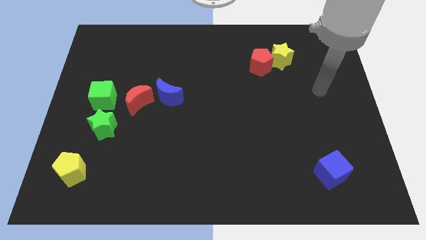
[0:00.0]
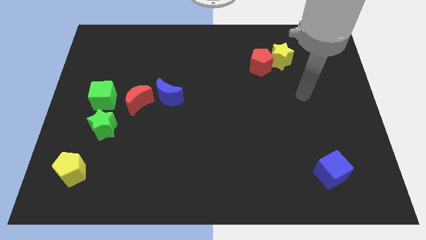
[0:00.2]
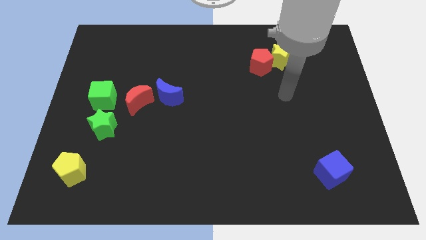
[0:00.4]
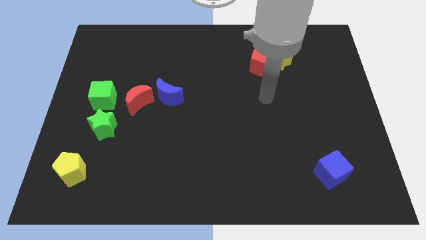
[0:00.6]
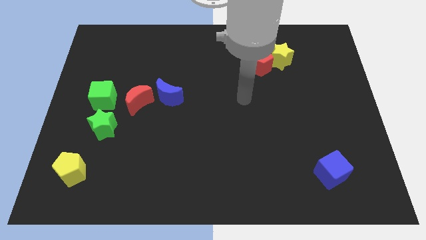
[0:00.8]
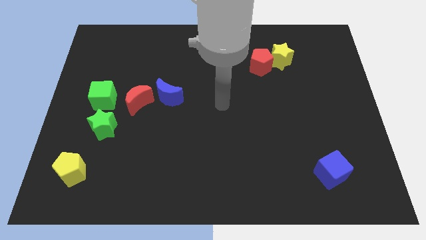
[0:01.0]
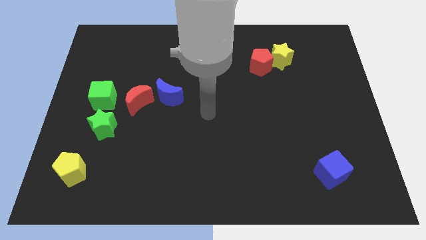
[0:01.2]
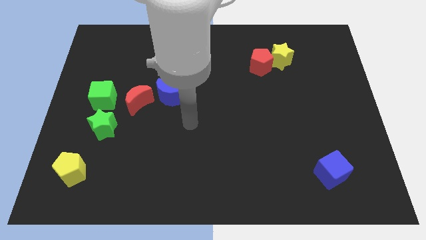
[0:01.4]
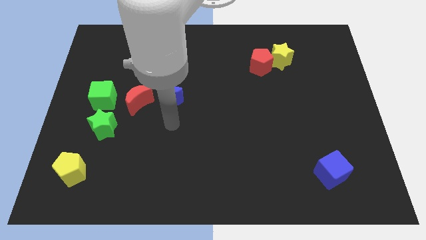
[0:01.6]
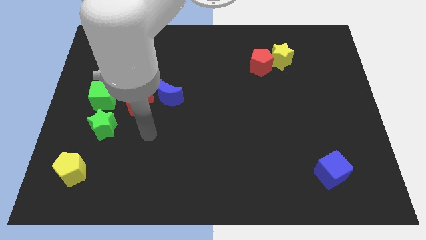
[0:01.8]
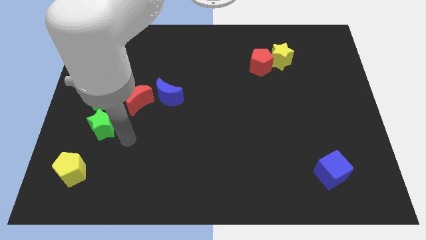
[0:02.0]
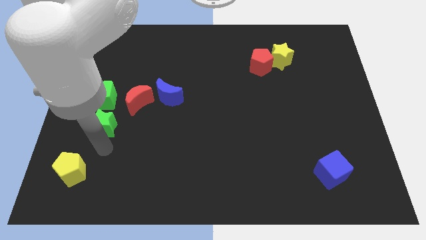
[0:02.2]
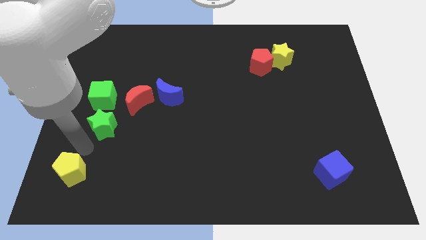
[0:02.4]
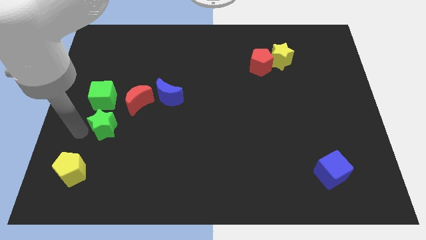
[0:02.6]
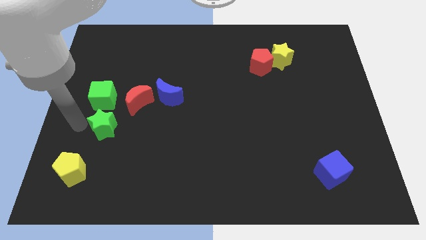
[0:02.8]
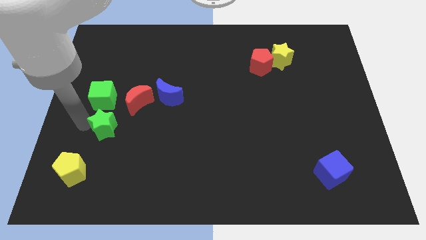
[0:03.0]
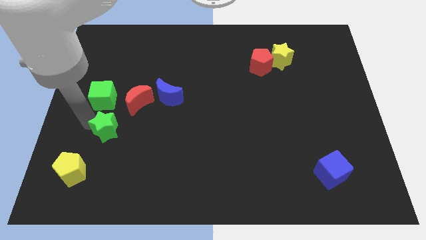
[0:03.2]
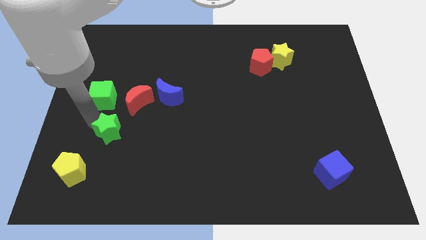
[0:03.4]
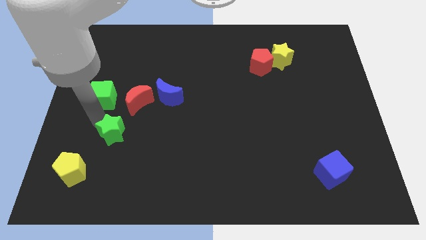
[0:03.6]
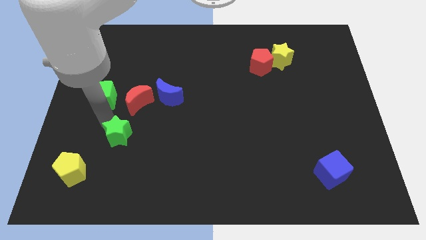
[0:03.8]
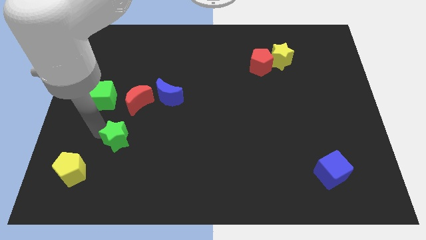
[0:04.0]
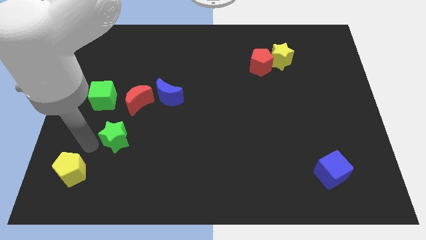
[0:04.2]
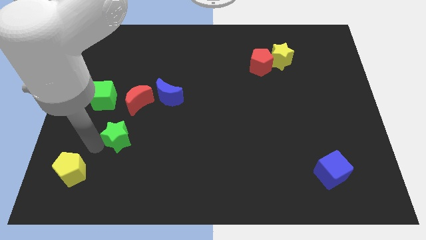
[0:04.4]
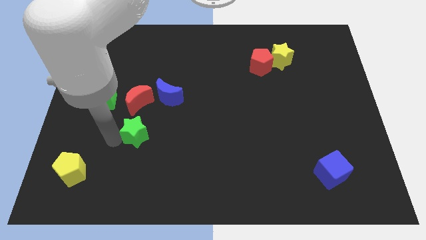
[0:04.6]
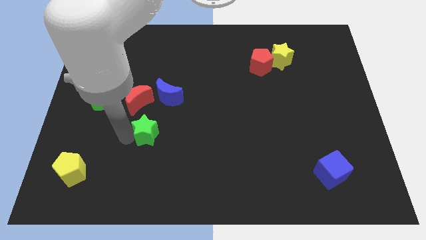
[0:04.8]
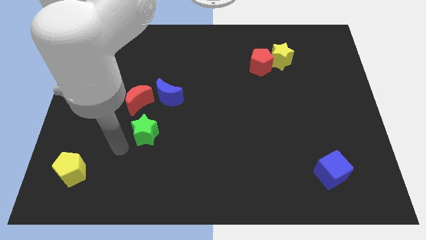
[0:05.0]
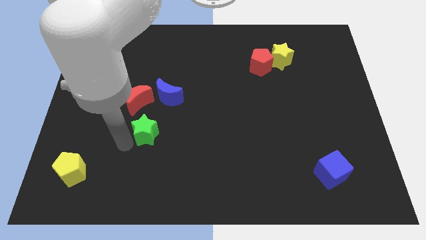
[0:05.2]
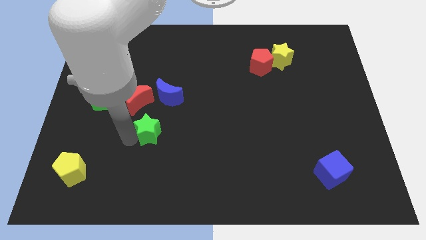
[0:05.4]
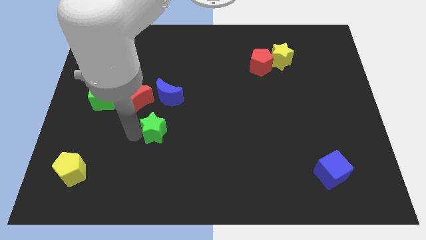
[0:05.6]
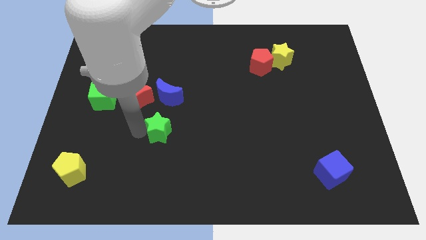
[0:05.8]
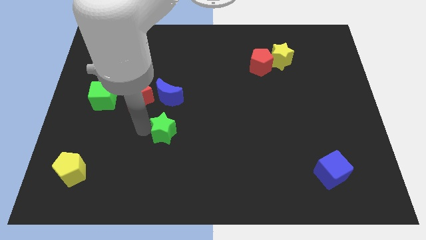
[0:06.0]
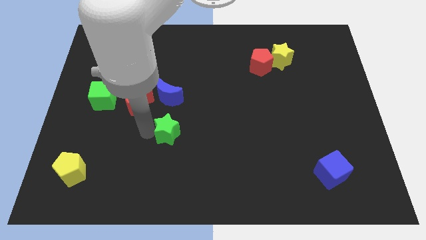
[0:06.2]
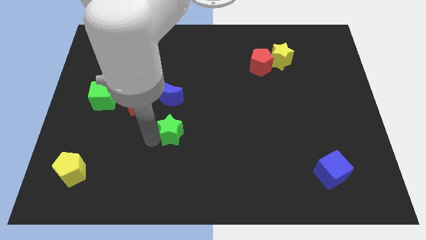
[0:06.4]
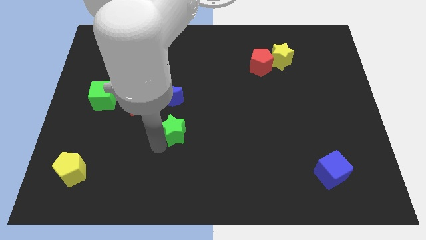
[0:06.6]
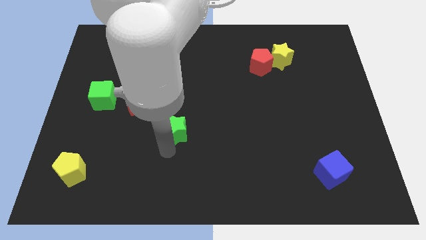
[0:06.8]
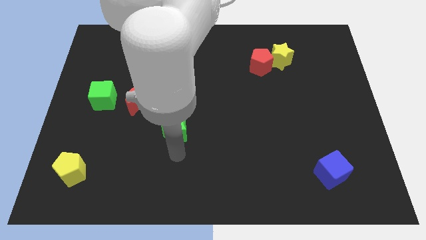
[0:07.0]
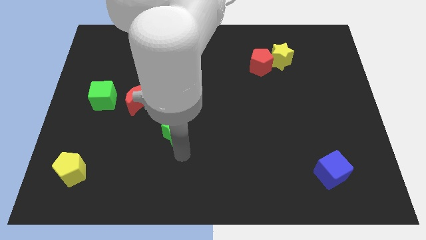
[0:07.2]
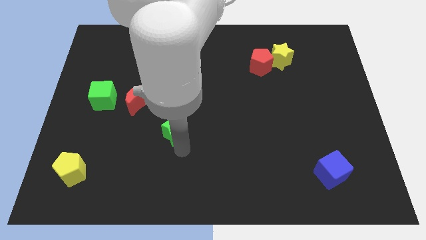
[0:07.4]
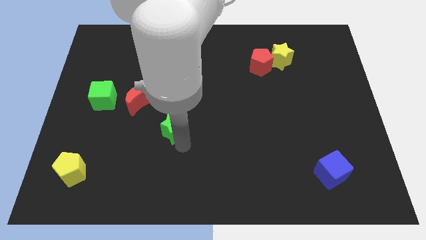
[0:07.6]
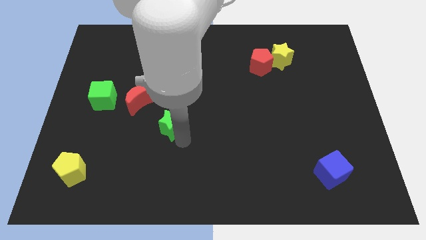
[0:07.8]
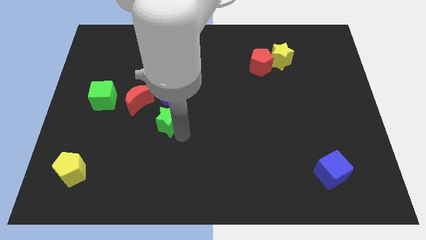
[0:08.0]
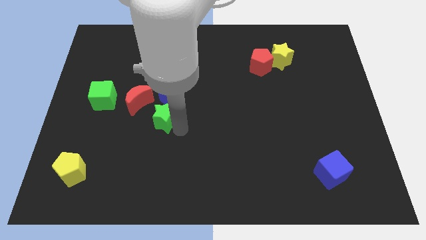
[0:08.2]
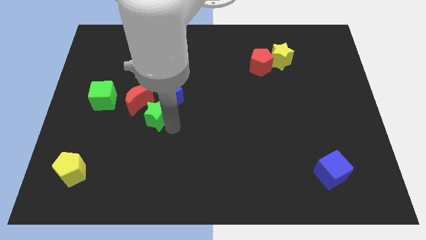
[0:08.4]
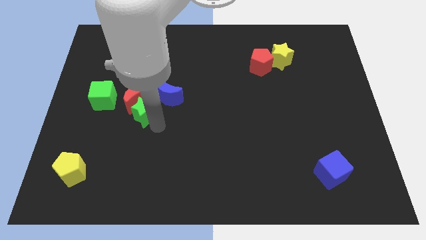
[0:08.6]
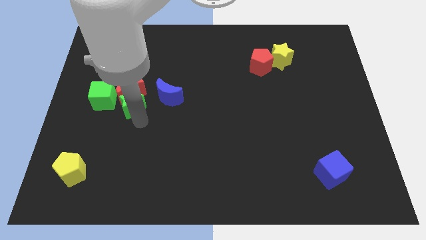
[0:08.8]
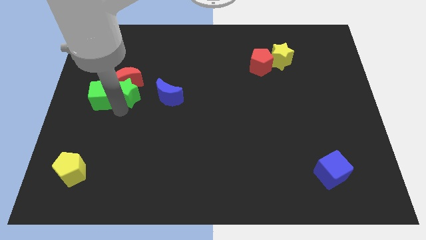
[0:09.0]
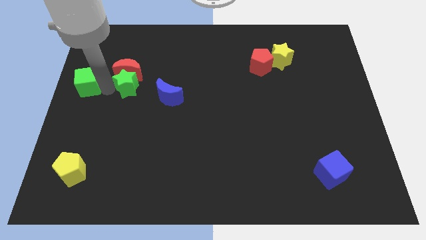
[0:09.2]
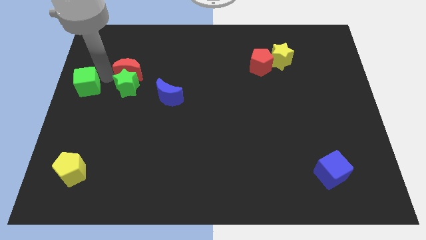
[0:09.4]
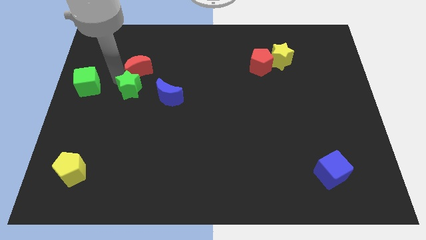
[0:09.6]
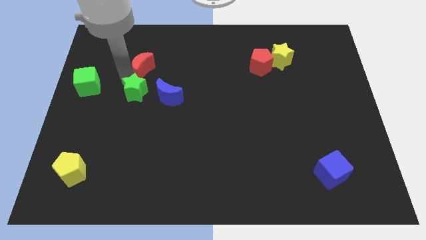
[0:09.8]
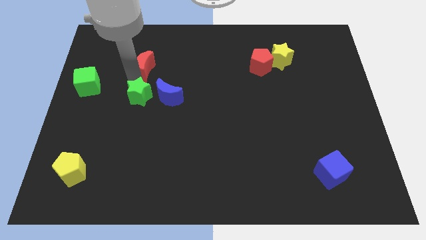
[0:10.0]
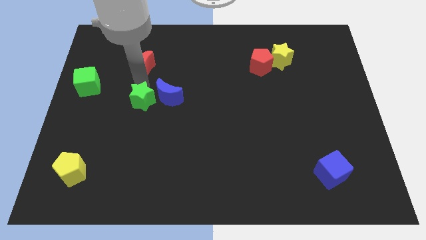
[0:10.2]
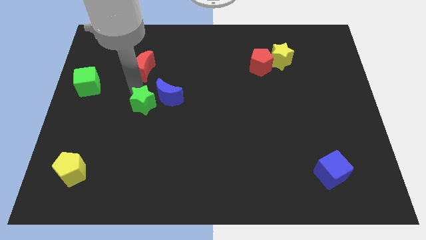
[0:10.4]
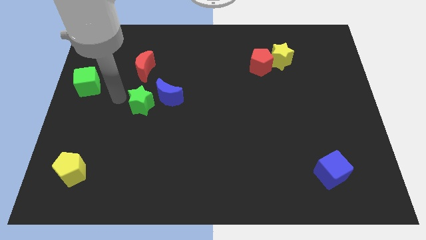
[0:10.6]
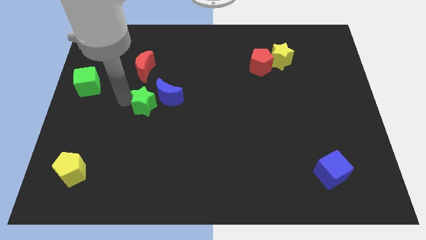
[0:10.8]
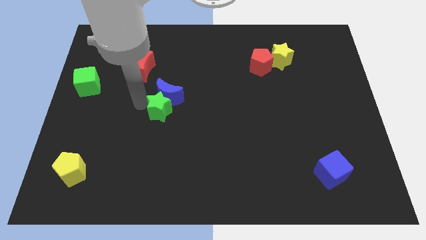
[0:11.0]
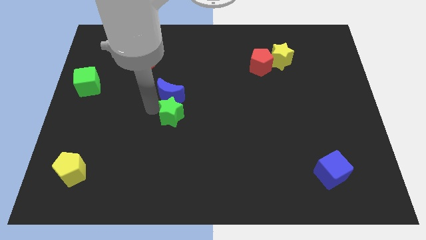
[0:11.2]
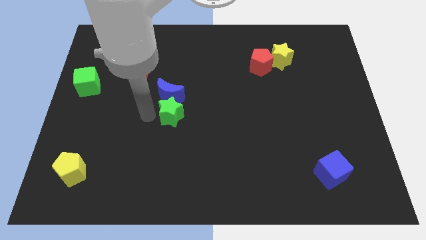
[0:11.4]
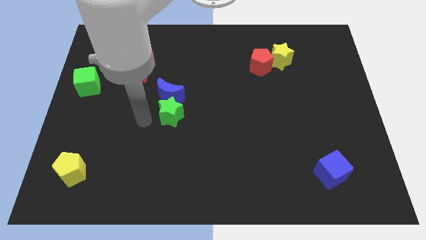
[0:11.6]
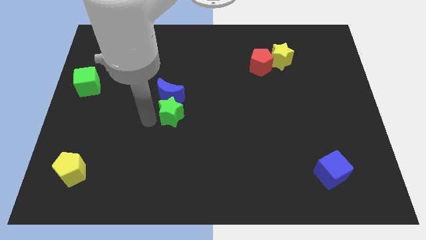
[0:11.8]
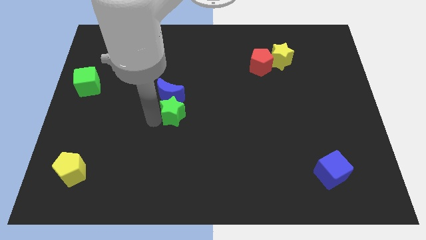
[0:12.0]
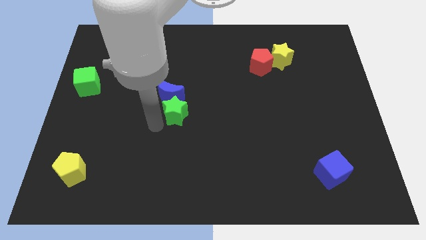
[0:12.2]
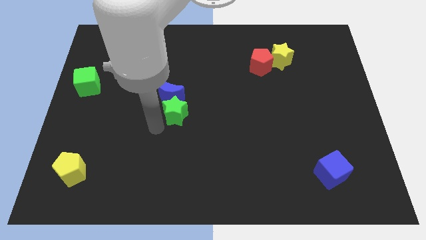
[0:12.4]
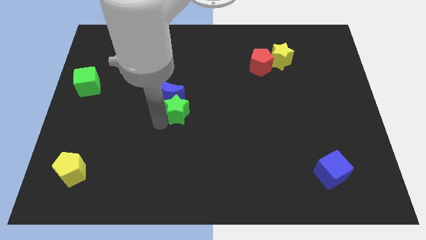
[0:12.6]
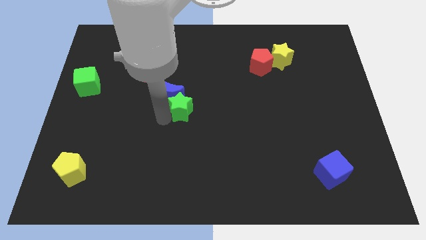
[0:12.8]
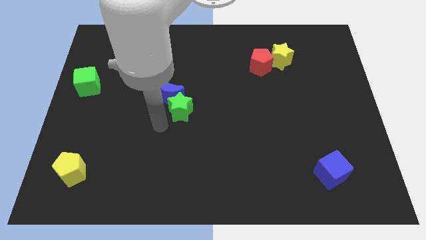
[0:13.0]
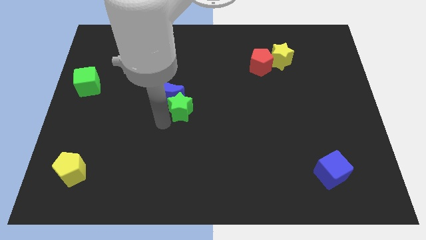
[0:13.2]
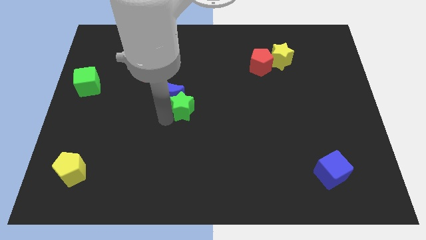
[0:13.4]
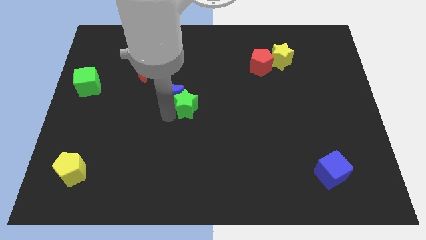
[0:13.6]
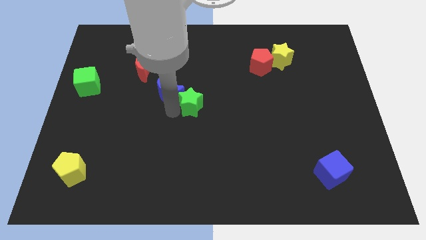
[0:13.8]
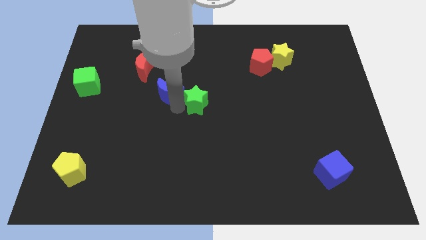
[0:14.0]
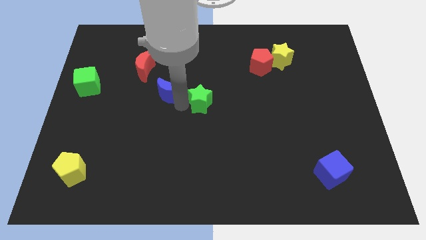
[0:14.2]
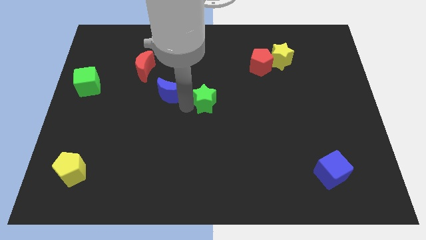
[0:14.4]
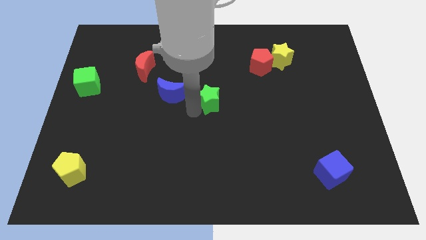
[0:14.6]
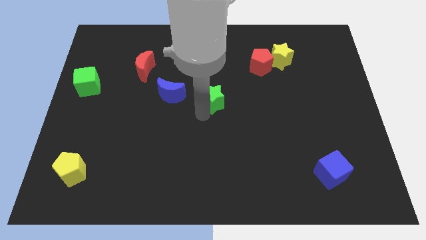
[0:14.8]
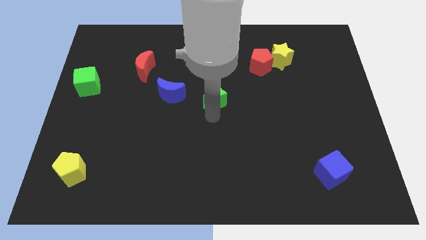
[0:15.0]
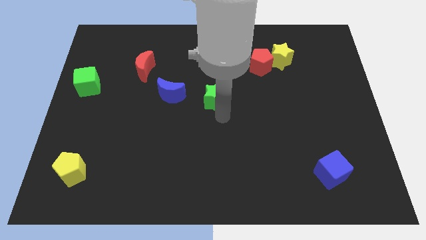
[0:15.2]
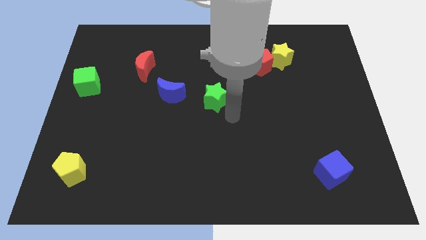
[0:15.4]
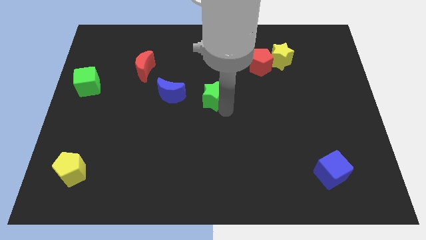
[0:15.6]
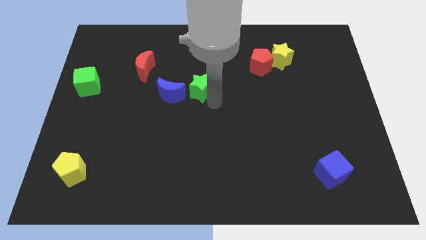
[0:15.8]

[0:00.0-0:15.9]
slide the green star upwards and right diagonally

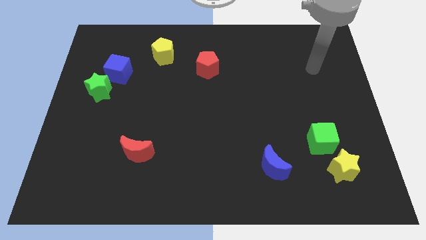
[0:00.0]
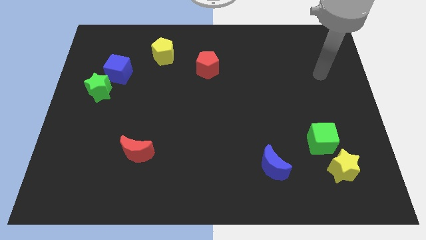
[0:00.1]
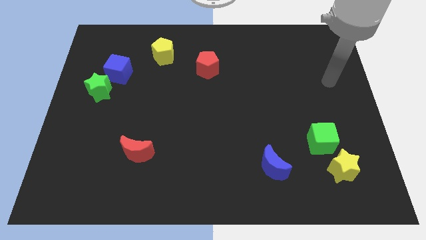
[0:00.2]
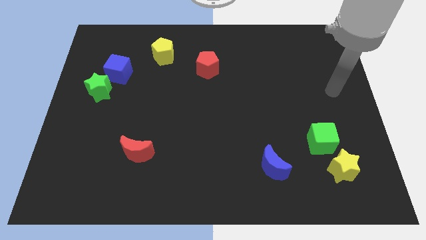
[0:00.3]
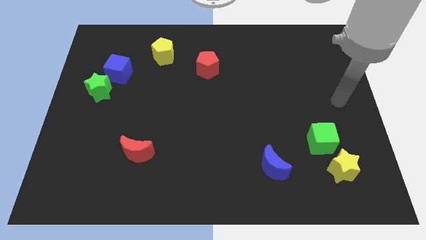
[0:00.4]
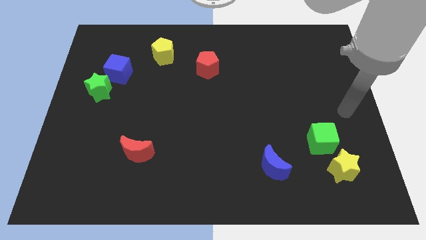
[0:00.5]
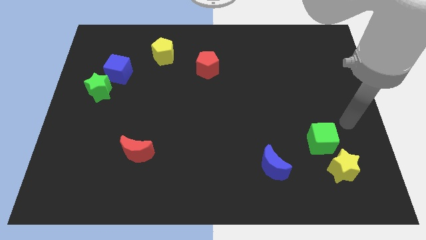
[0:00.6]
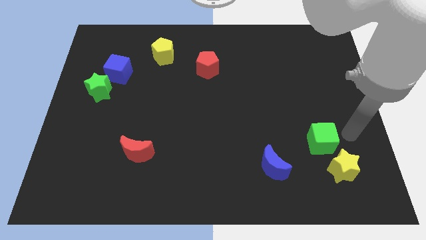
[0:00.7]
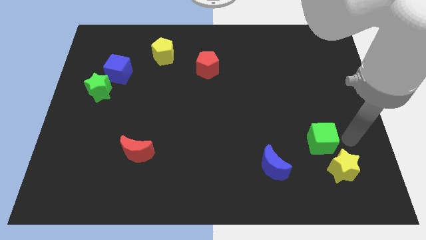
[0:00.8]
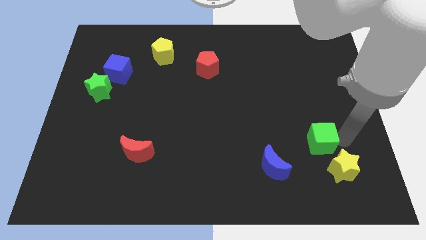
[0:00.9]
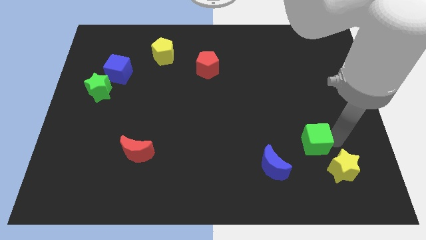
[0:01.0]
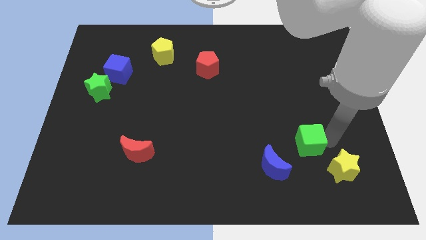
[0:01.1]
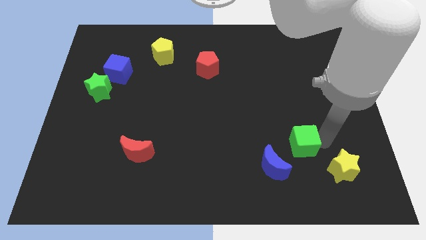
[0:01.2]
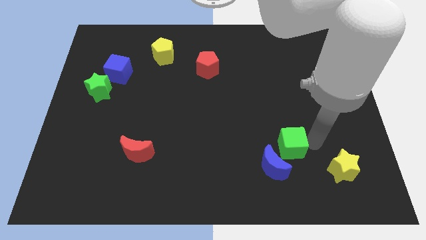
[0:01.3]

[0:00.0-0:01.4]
push the green cube slightly left
